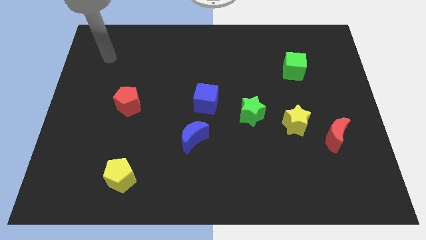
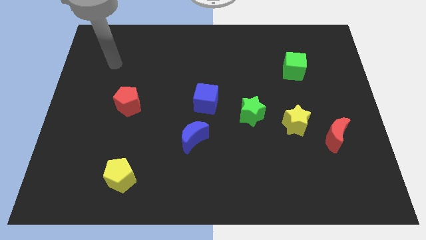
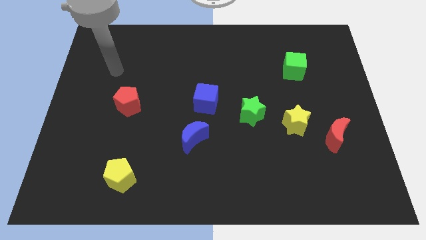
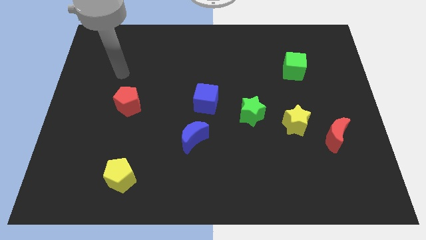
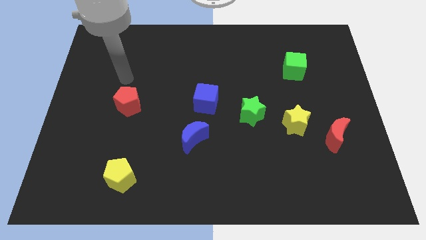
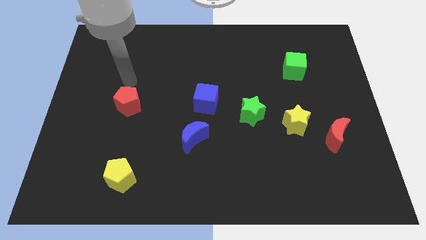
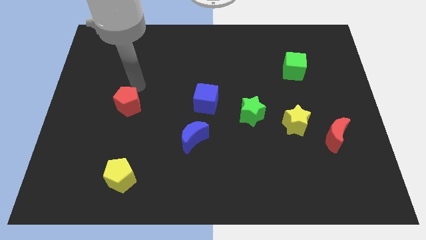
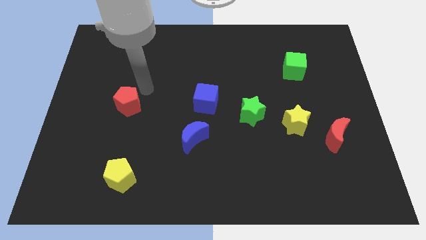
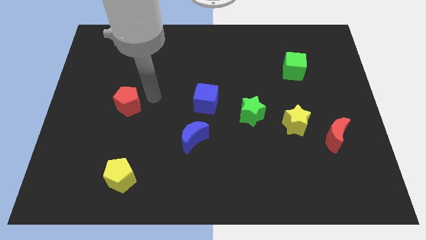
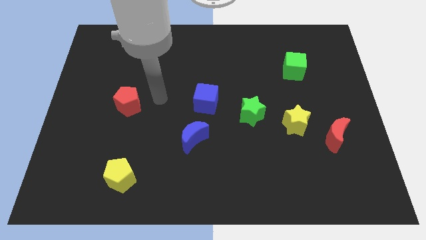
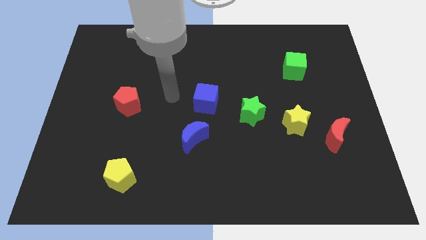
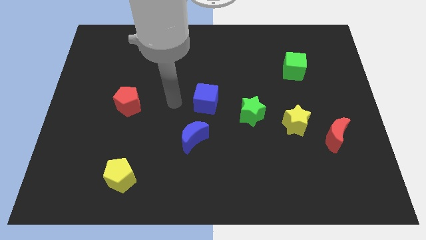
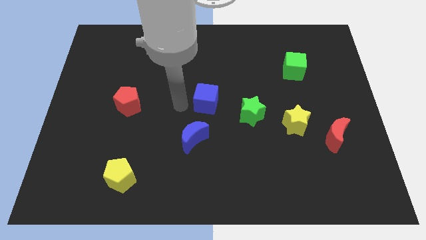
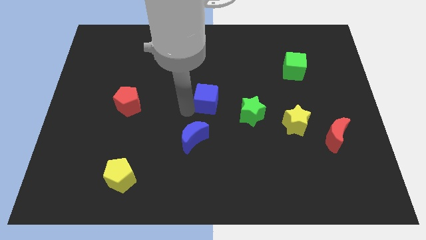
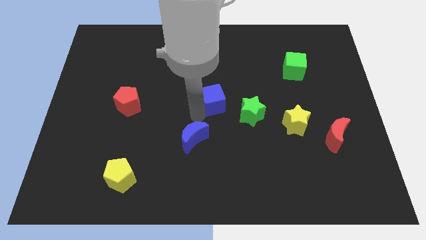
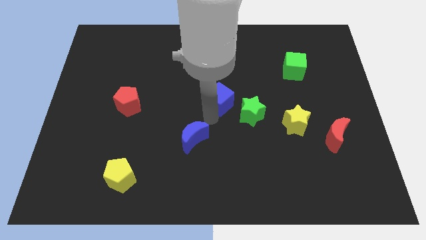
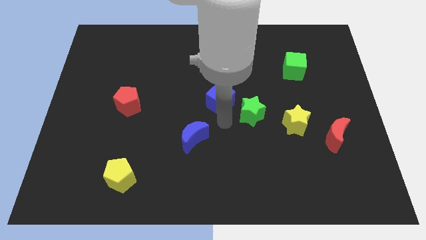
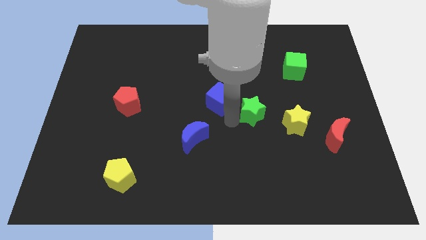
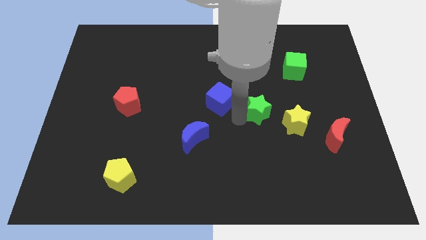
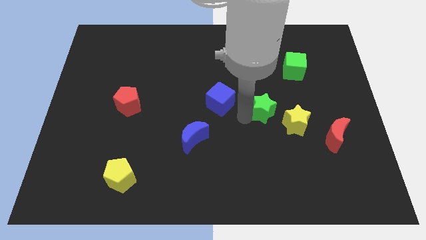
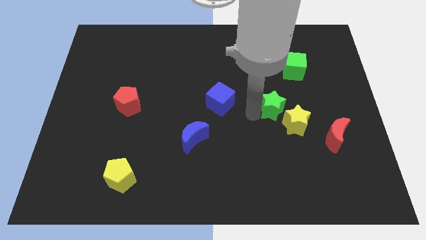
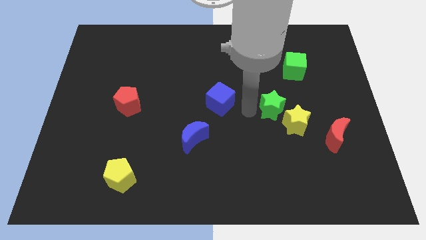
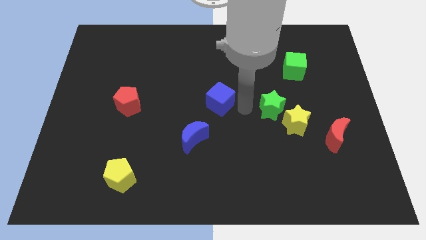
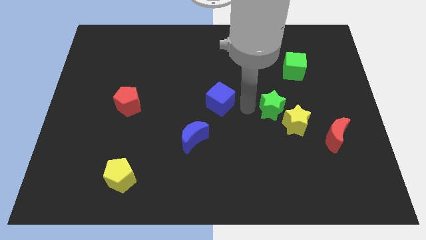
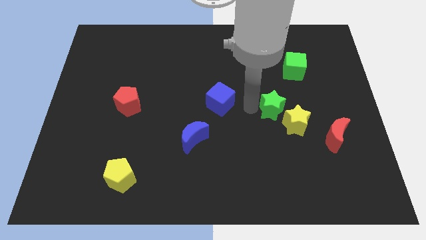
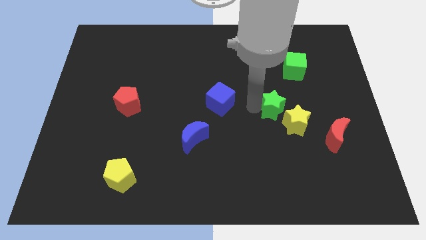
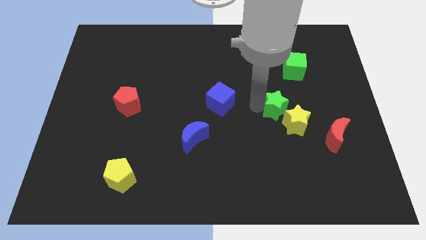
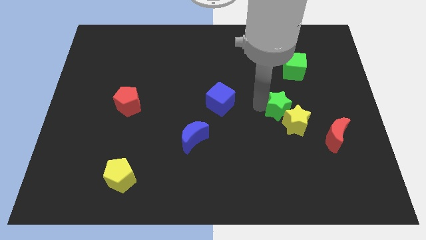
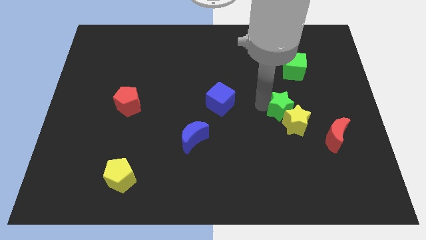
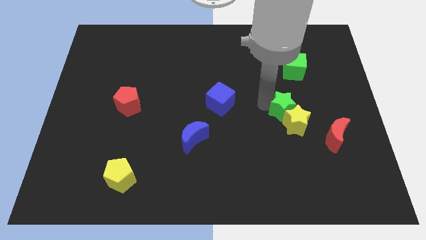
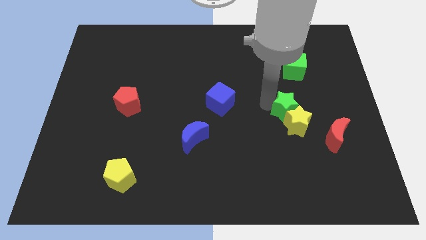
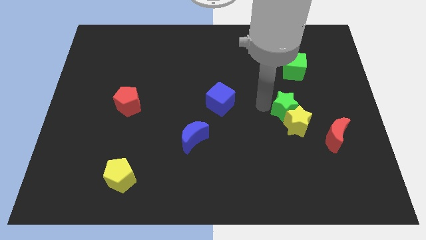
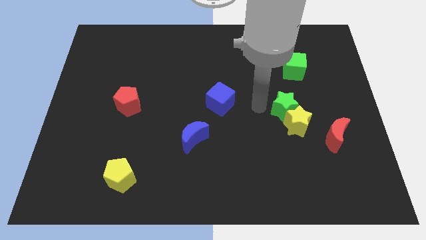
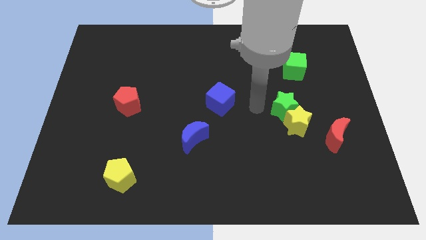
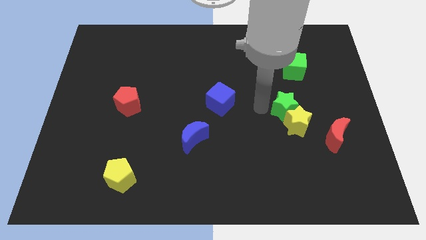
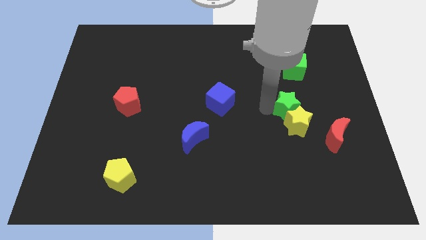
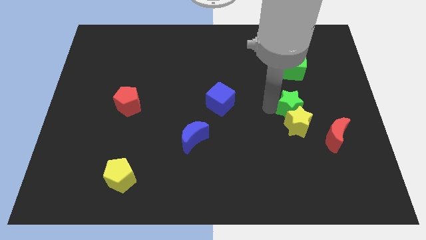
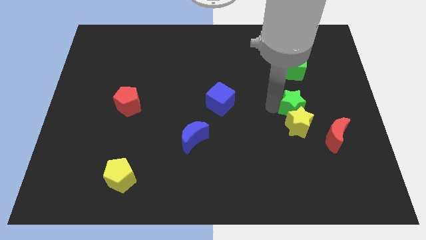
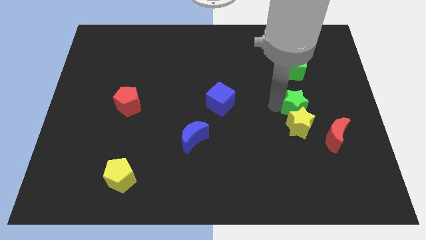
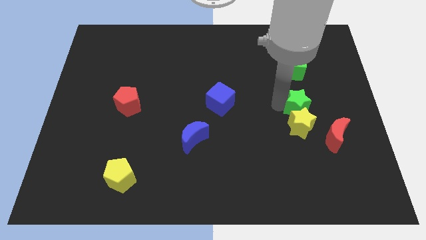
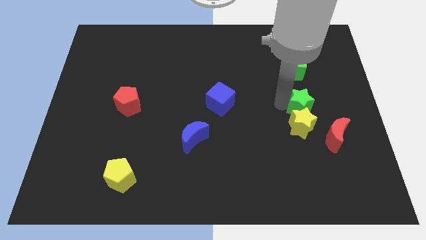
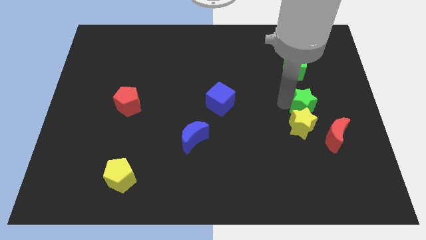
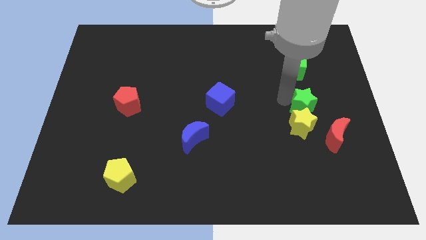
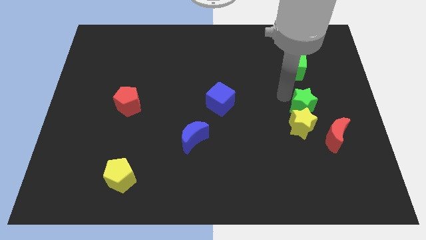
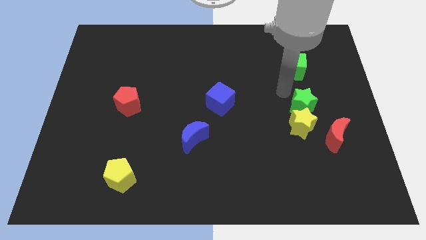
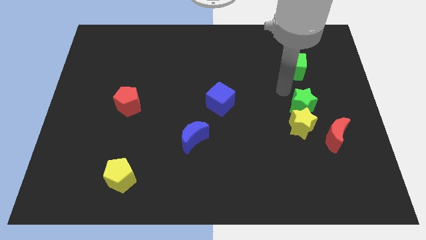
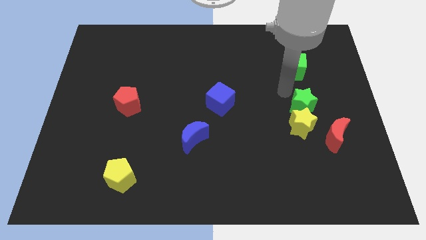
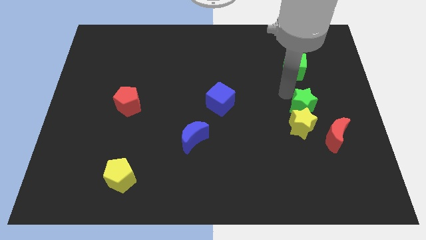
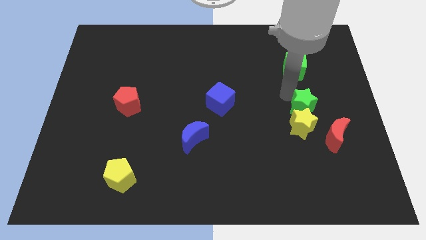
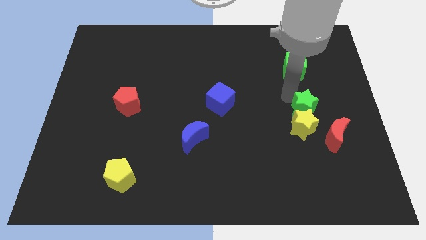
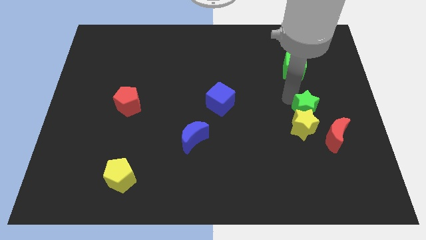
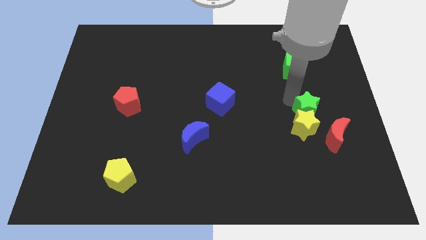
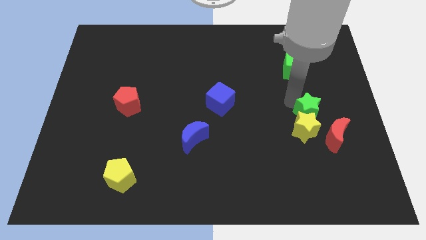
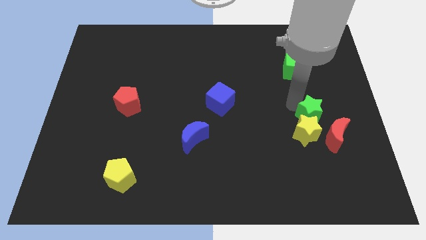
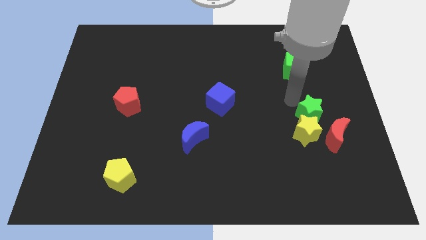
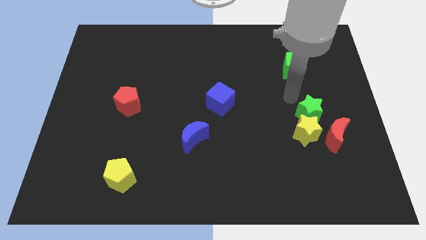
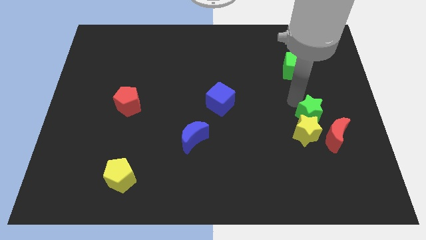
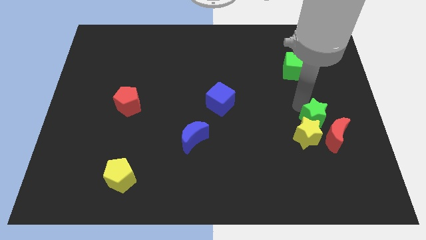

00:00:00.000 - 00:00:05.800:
move the green star next to the red moon

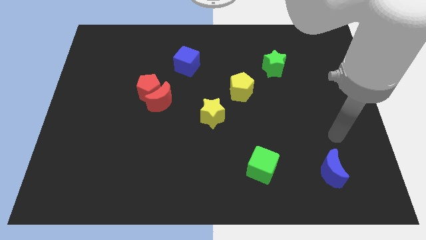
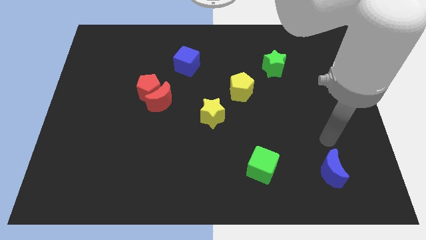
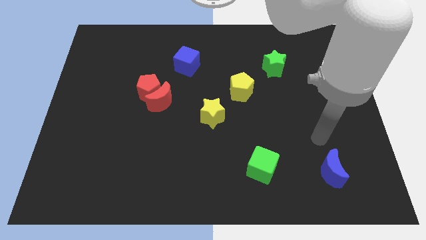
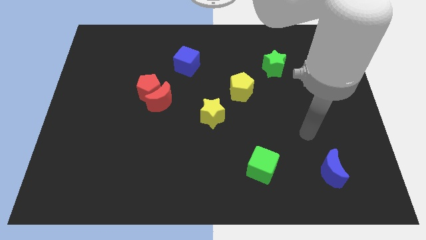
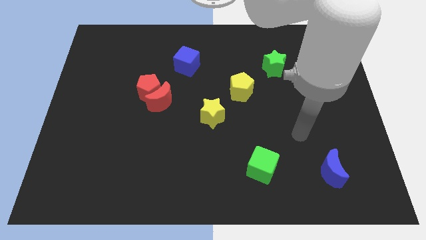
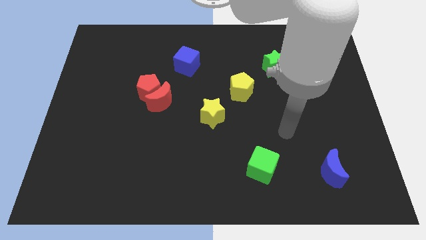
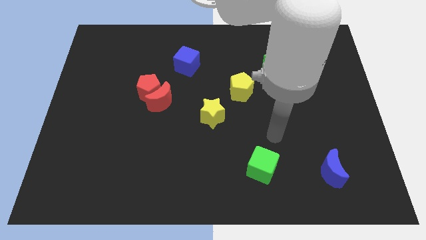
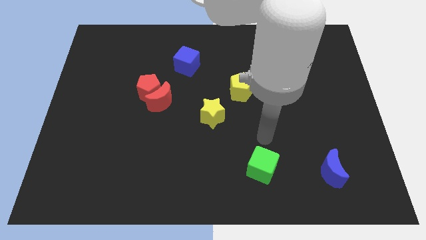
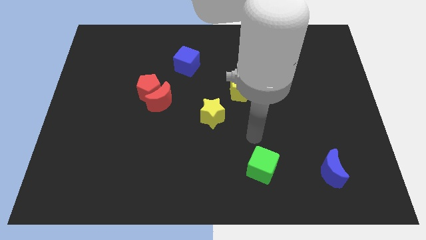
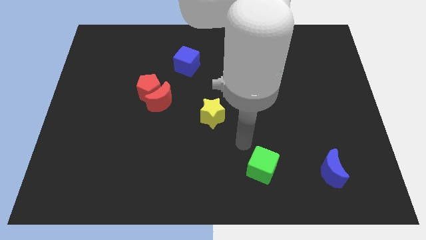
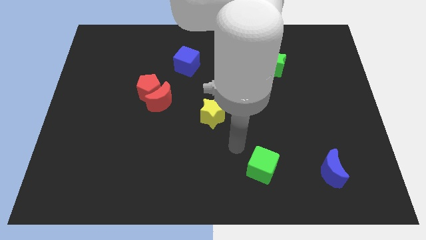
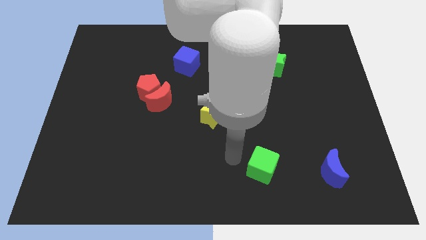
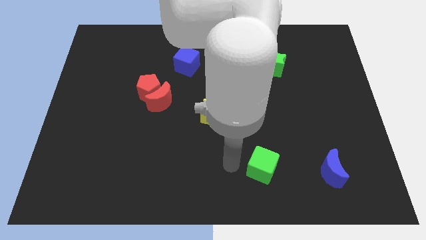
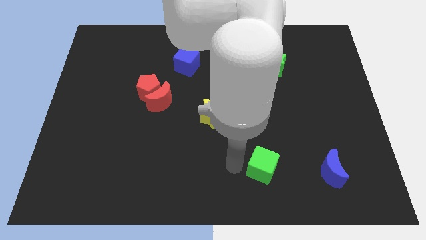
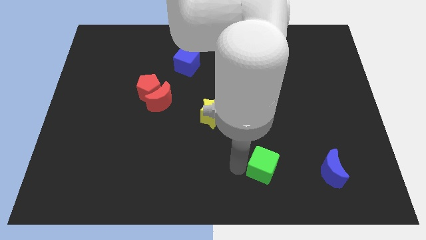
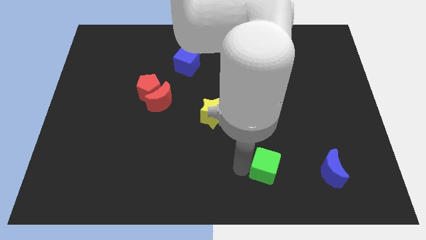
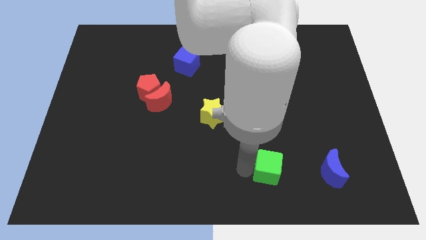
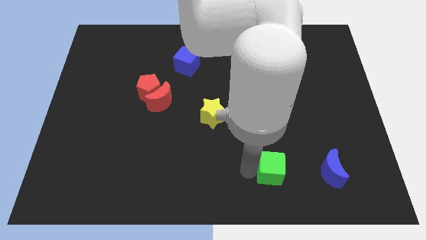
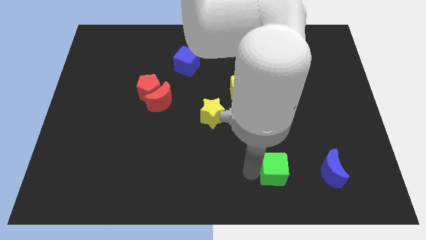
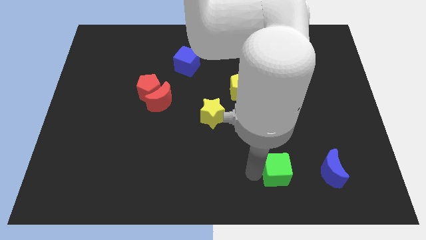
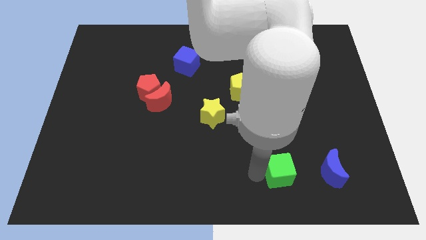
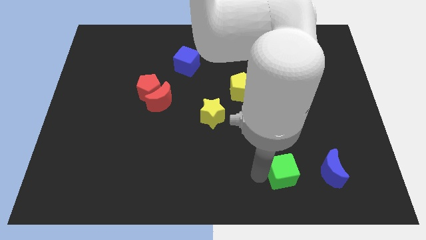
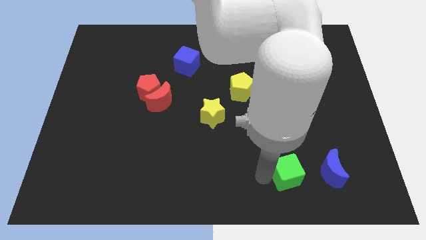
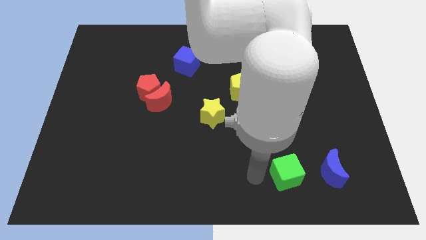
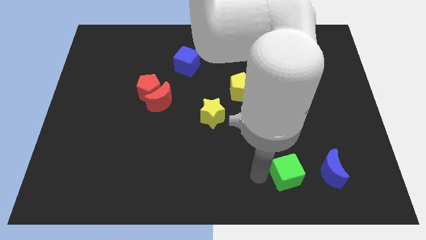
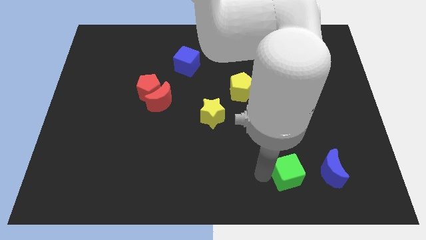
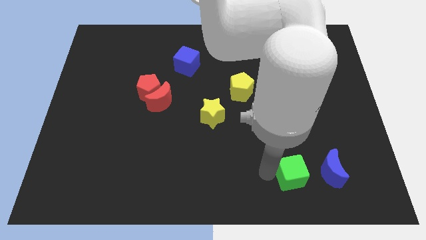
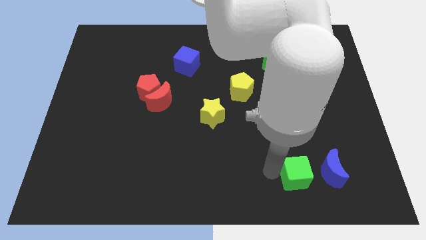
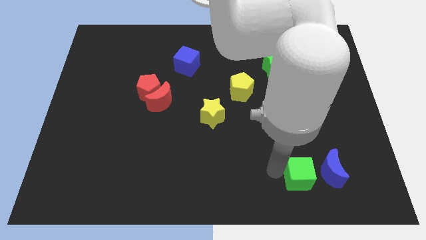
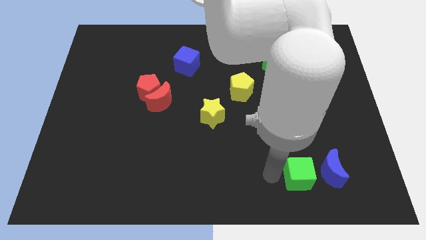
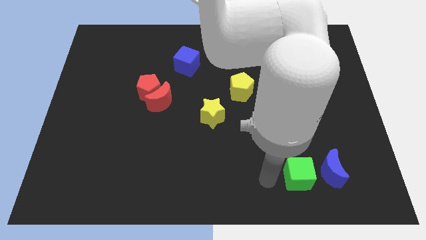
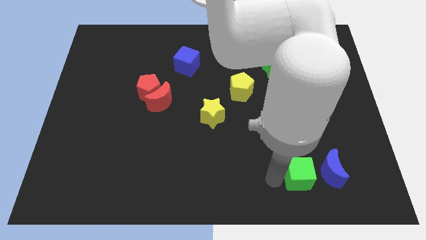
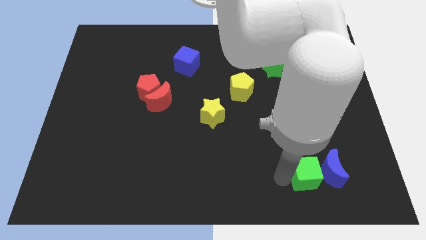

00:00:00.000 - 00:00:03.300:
push the green cube next to the blue moon
